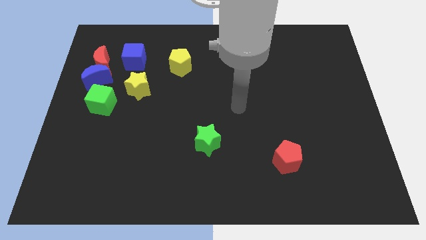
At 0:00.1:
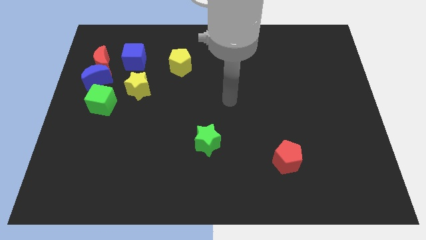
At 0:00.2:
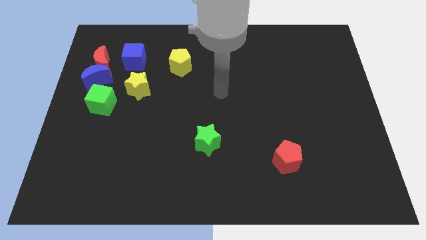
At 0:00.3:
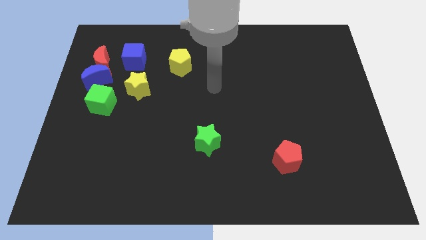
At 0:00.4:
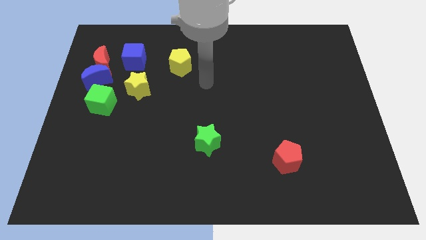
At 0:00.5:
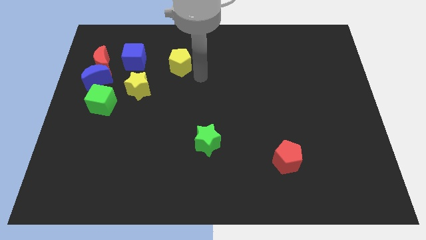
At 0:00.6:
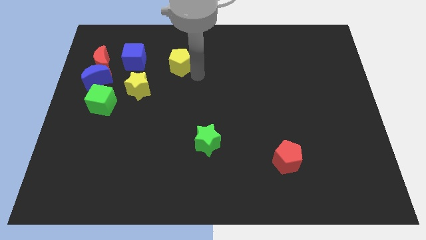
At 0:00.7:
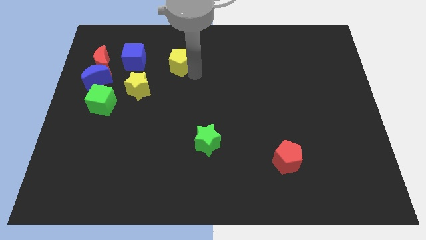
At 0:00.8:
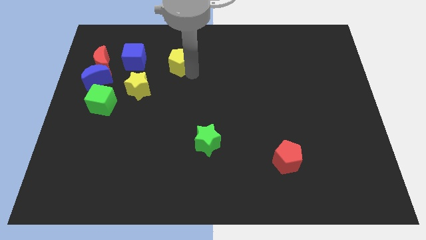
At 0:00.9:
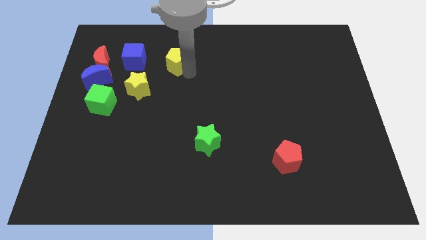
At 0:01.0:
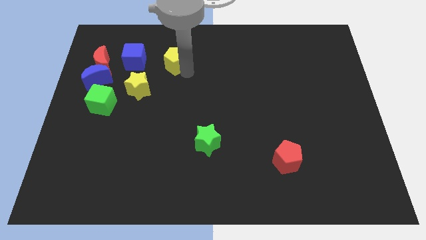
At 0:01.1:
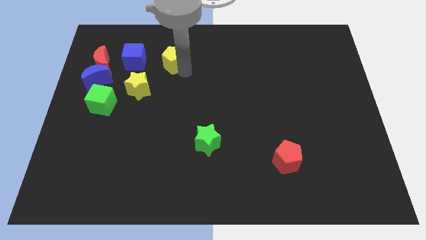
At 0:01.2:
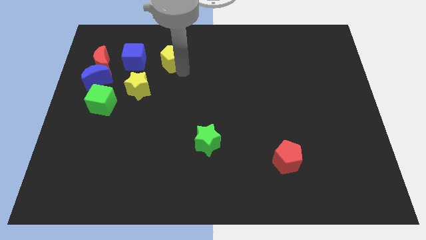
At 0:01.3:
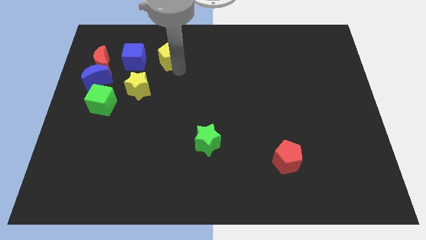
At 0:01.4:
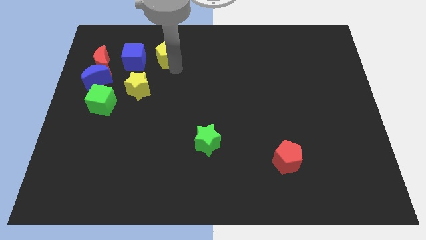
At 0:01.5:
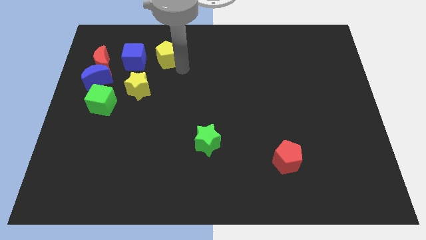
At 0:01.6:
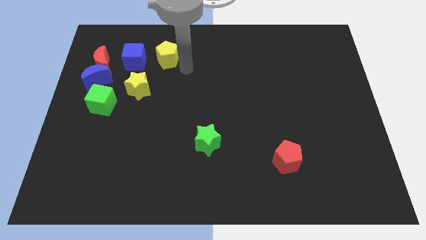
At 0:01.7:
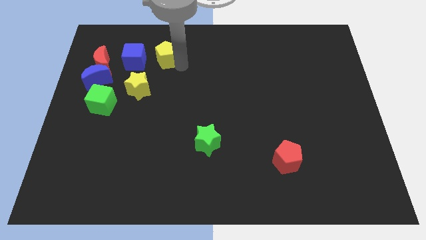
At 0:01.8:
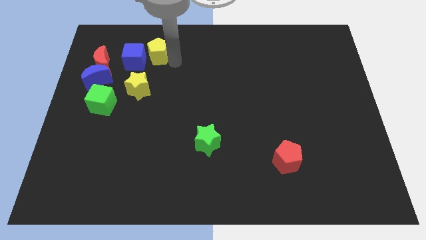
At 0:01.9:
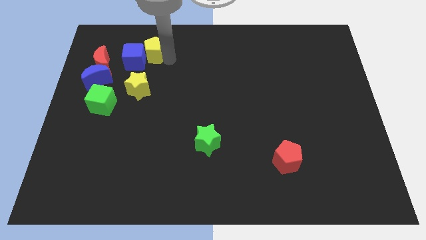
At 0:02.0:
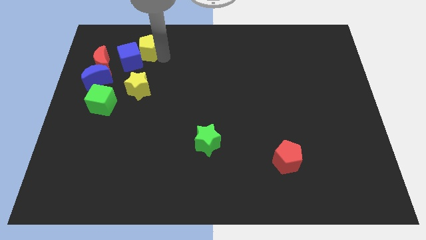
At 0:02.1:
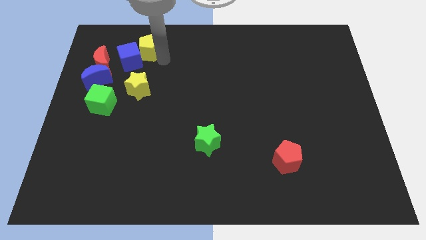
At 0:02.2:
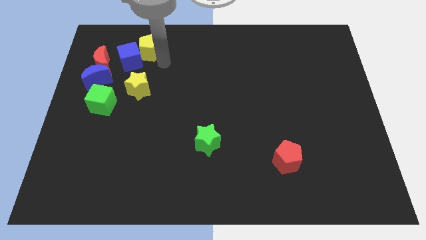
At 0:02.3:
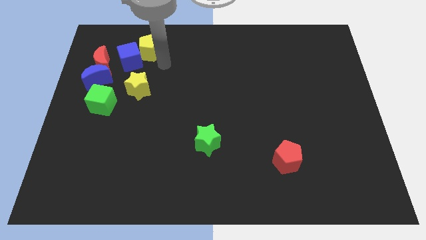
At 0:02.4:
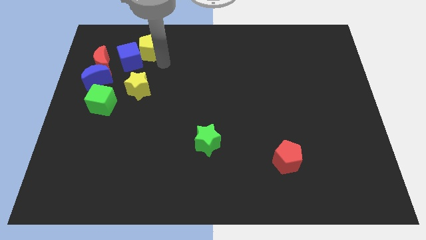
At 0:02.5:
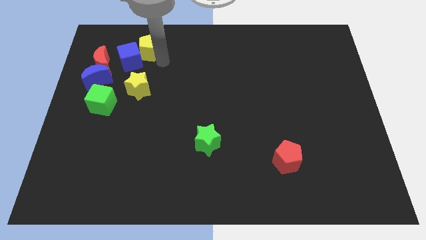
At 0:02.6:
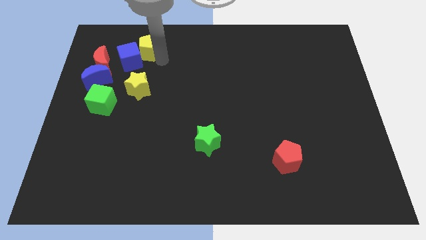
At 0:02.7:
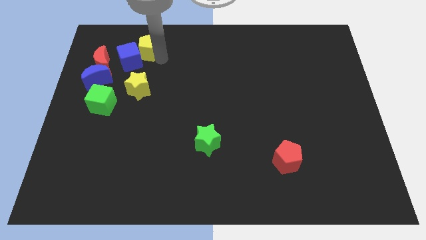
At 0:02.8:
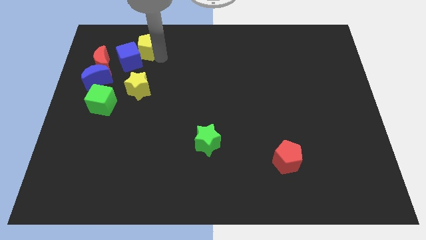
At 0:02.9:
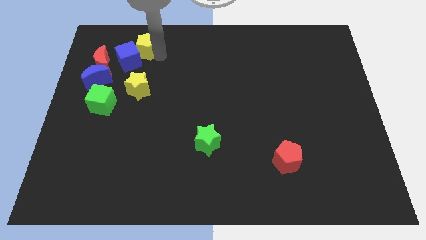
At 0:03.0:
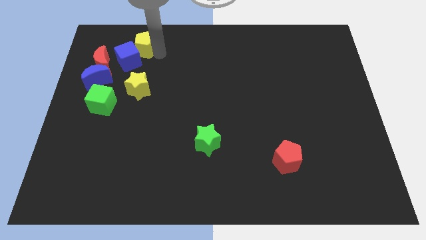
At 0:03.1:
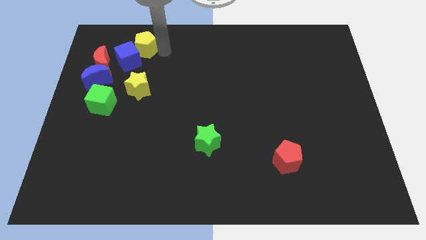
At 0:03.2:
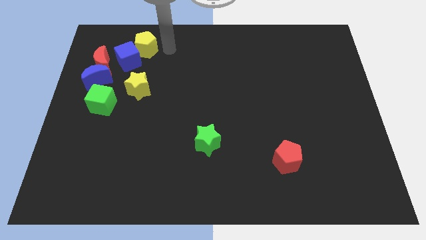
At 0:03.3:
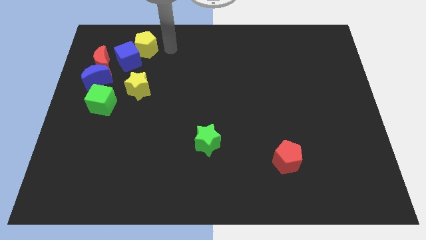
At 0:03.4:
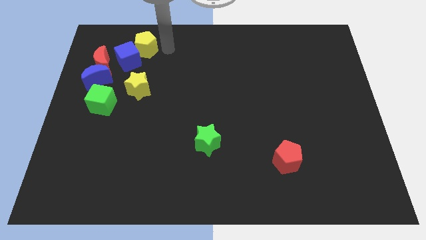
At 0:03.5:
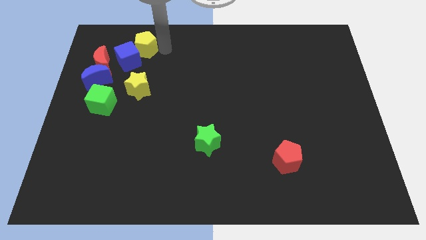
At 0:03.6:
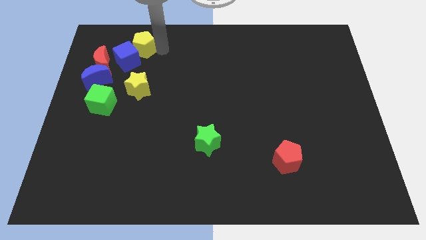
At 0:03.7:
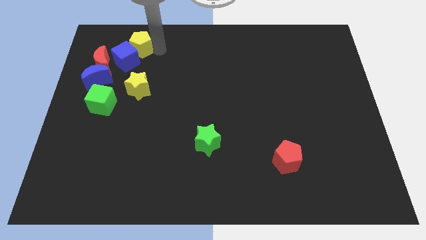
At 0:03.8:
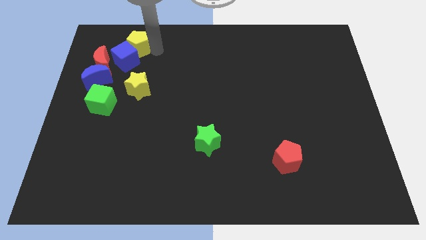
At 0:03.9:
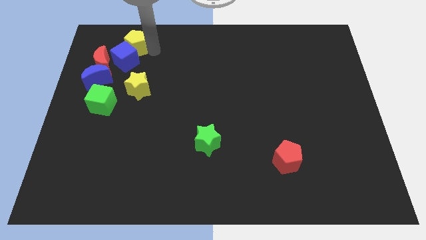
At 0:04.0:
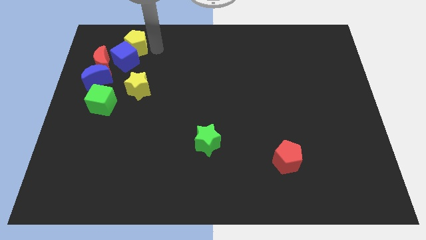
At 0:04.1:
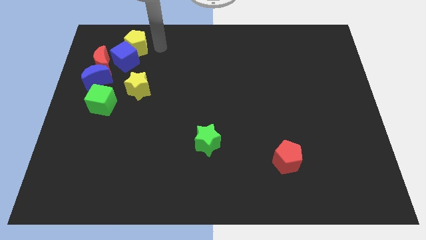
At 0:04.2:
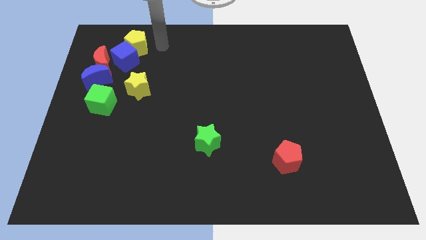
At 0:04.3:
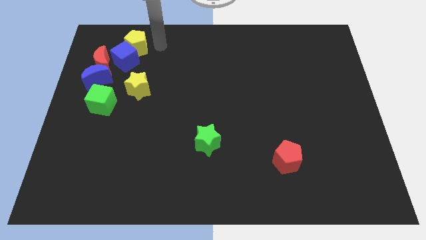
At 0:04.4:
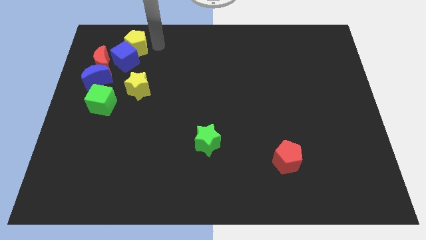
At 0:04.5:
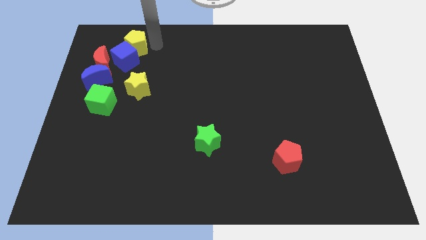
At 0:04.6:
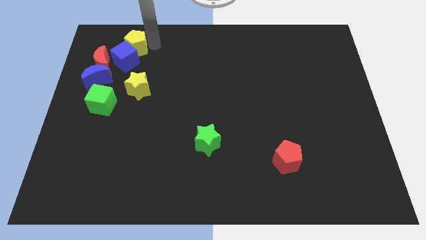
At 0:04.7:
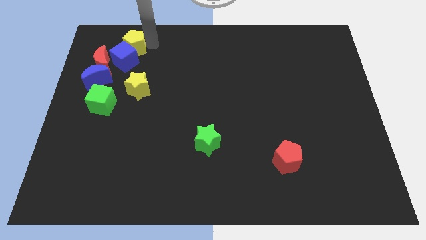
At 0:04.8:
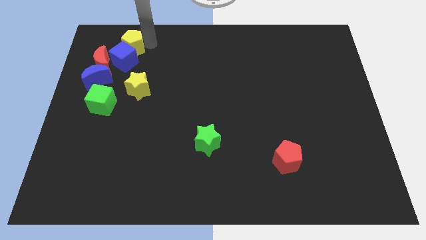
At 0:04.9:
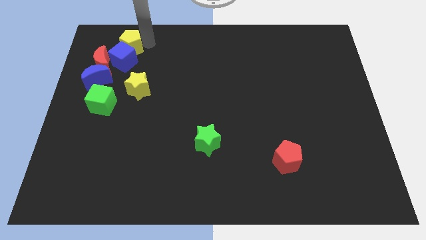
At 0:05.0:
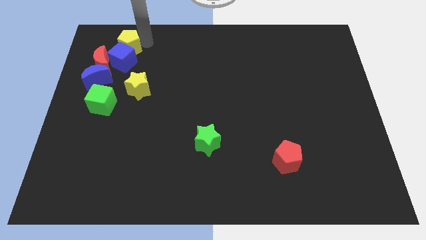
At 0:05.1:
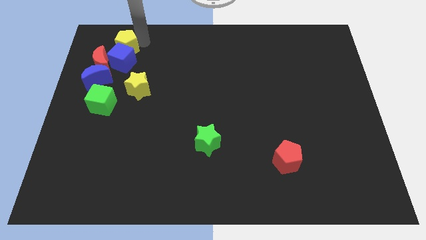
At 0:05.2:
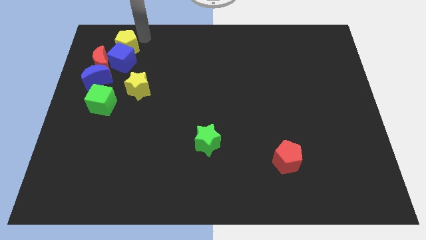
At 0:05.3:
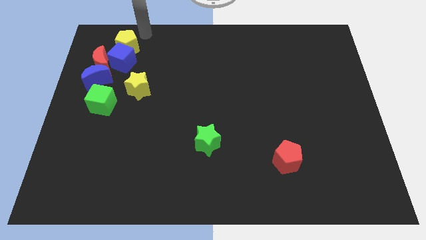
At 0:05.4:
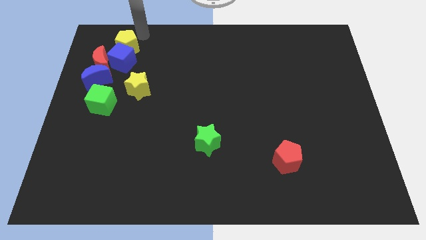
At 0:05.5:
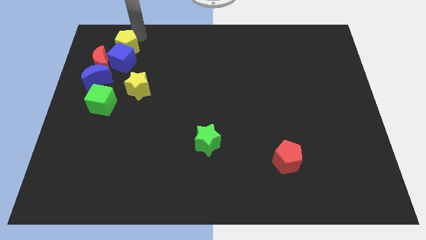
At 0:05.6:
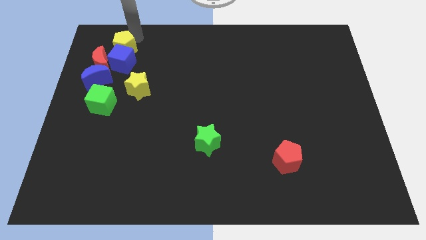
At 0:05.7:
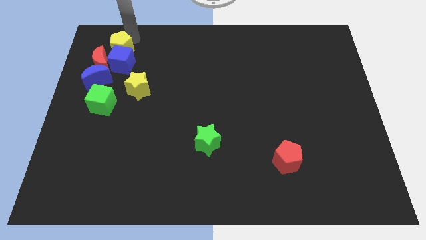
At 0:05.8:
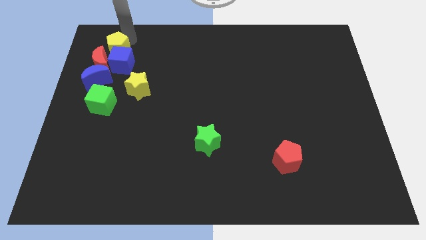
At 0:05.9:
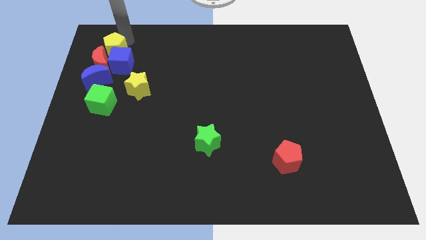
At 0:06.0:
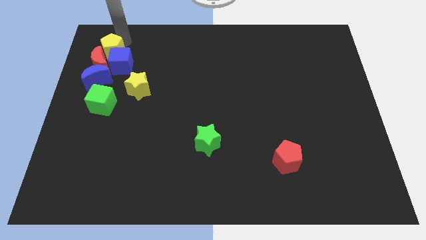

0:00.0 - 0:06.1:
put the yellow pentagon next to the red moon

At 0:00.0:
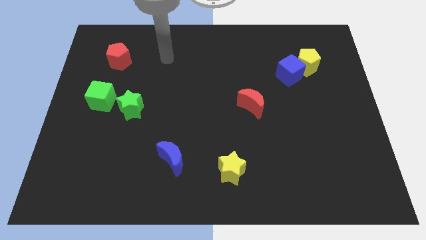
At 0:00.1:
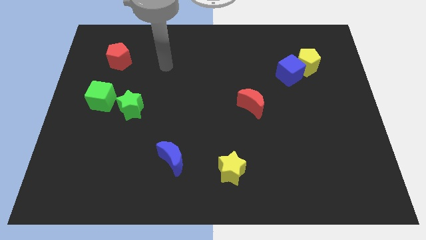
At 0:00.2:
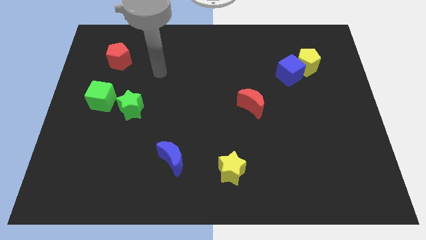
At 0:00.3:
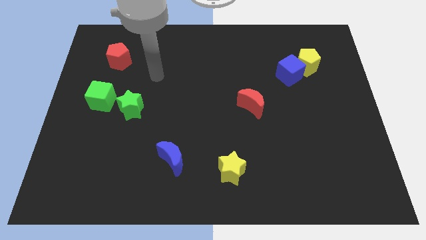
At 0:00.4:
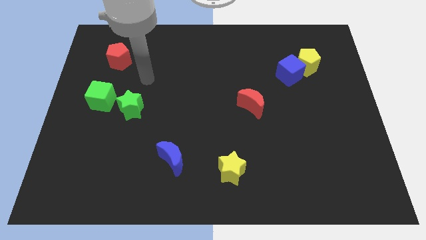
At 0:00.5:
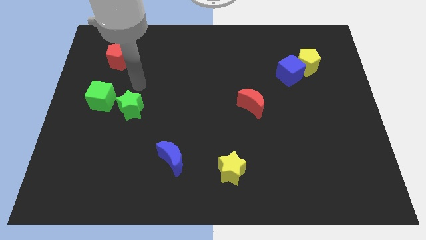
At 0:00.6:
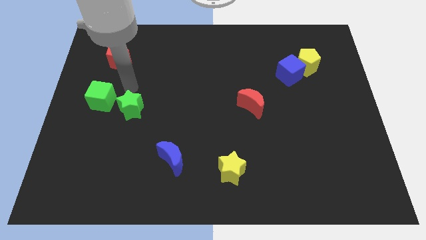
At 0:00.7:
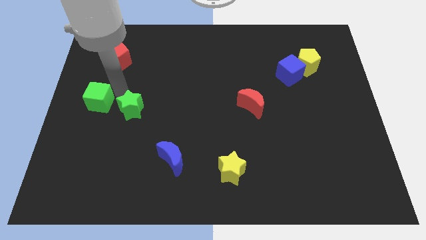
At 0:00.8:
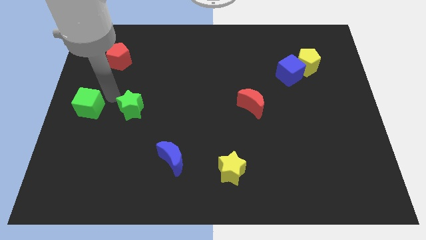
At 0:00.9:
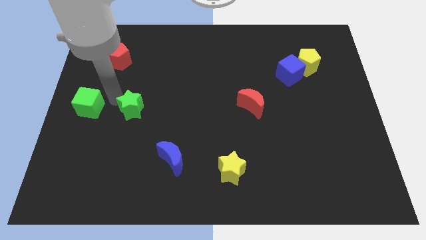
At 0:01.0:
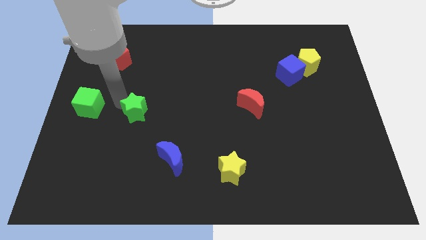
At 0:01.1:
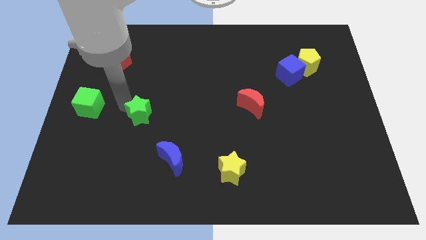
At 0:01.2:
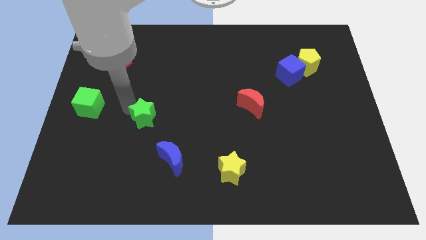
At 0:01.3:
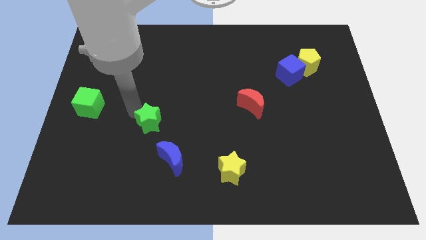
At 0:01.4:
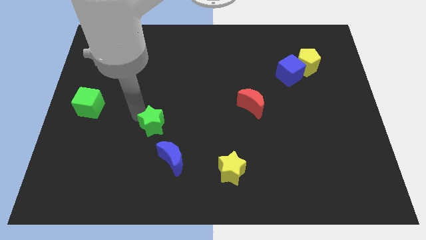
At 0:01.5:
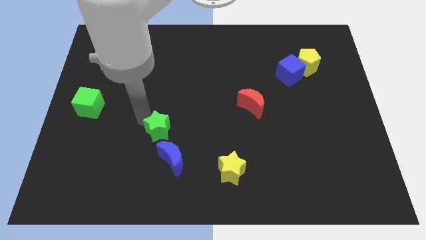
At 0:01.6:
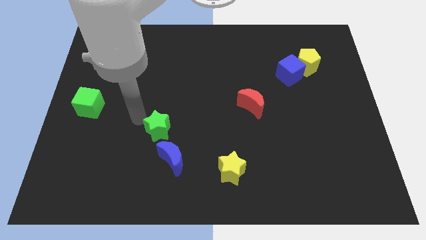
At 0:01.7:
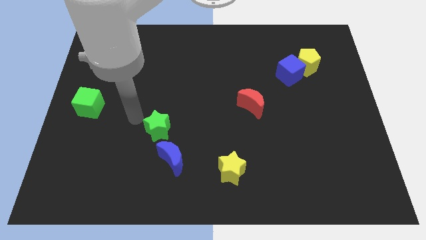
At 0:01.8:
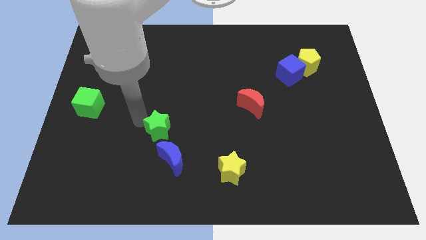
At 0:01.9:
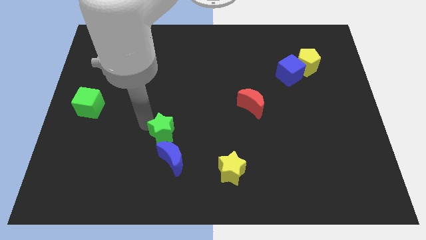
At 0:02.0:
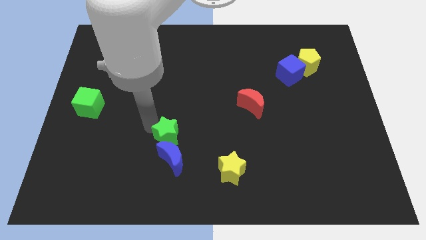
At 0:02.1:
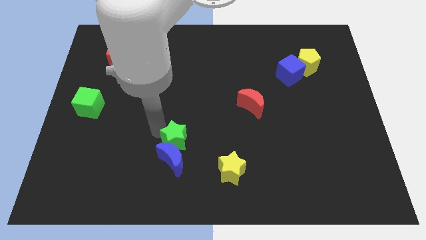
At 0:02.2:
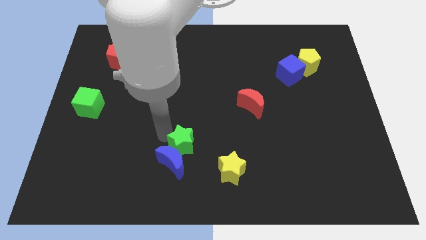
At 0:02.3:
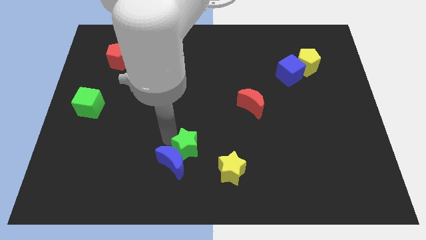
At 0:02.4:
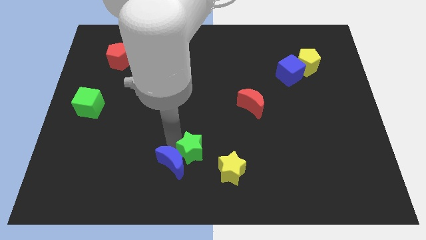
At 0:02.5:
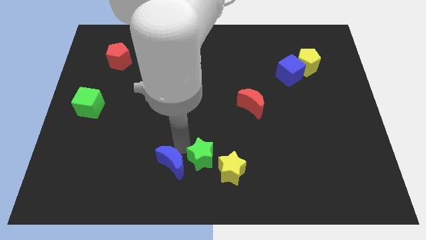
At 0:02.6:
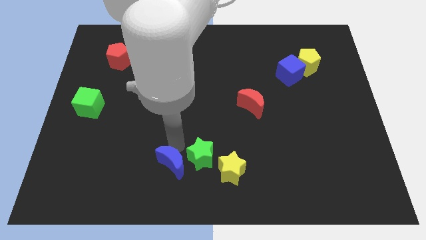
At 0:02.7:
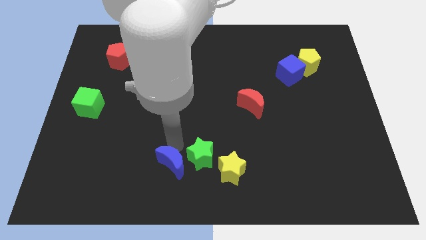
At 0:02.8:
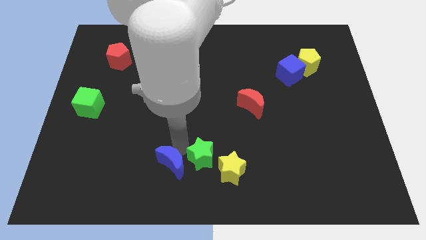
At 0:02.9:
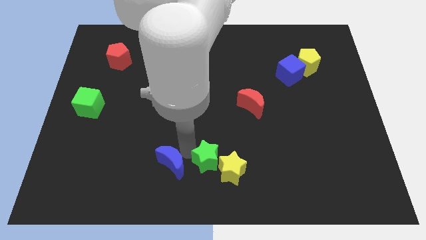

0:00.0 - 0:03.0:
put the green star to the yellow star
